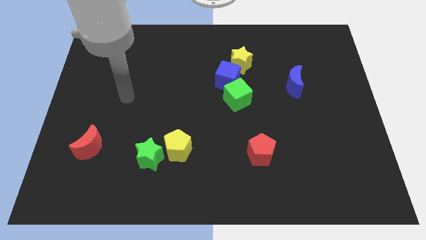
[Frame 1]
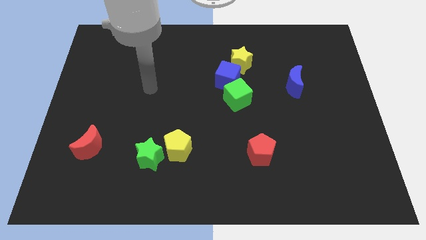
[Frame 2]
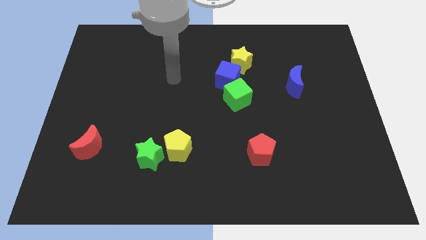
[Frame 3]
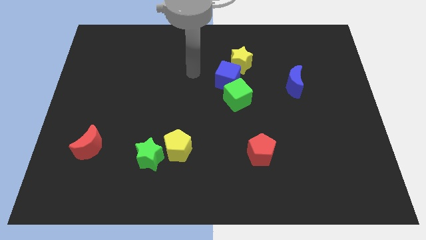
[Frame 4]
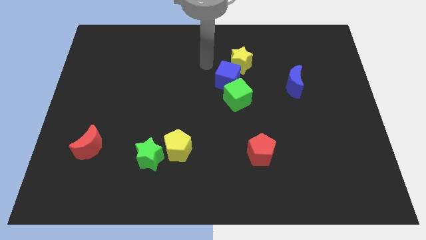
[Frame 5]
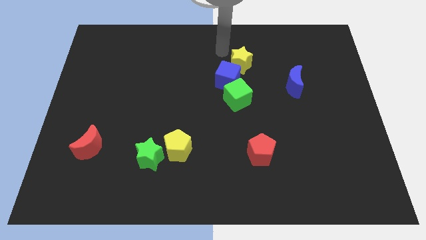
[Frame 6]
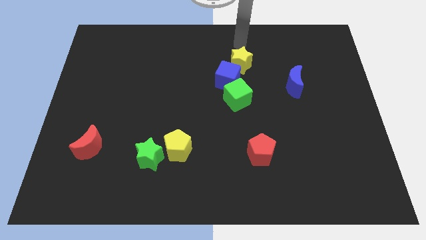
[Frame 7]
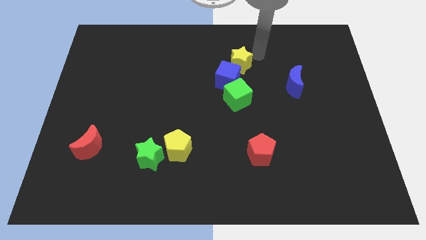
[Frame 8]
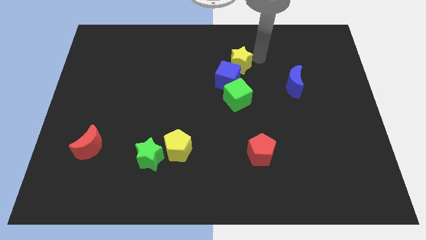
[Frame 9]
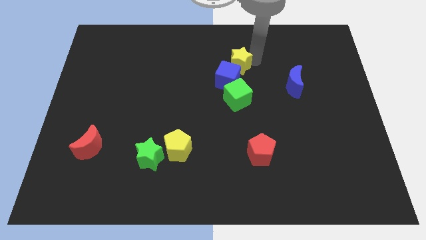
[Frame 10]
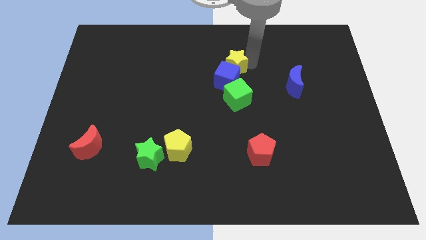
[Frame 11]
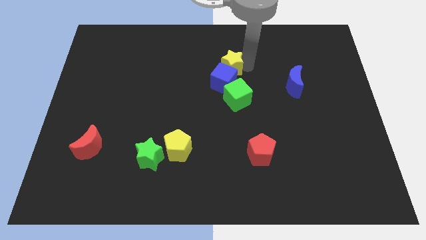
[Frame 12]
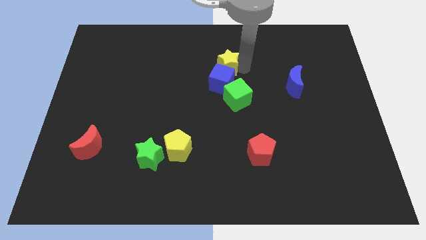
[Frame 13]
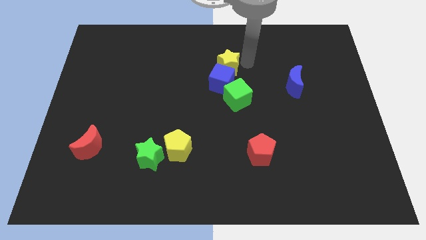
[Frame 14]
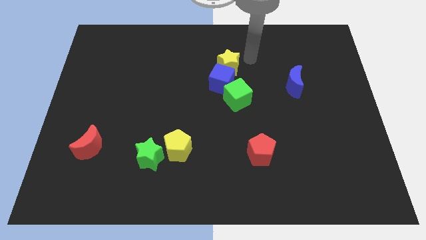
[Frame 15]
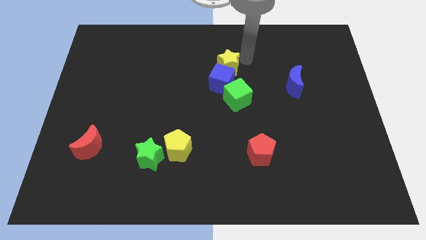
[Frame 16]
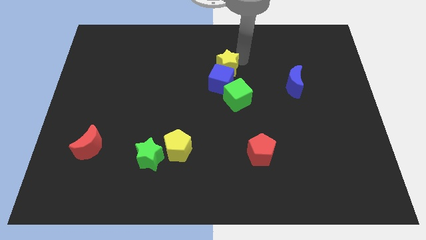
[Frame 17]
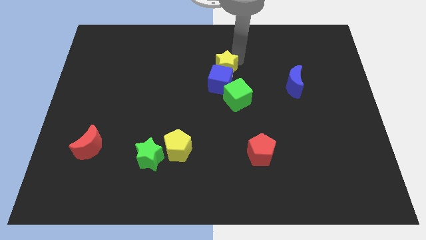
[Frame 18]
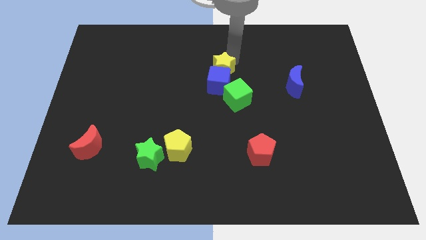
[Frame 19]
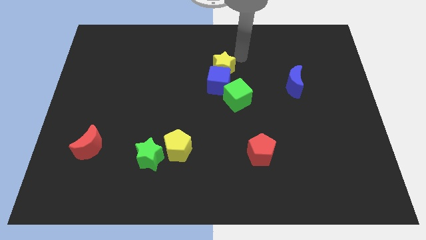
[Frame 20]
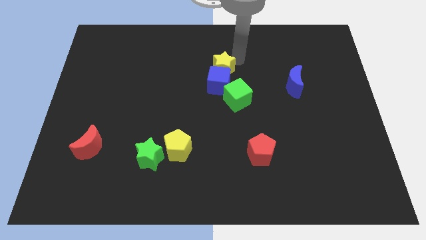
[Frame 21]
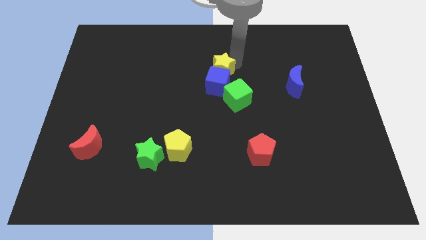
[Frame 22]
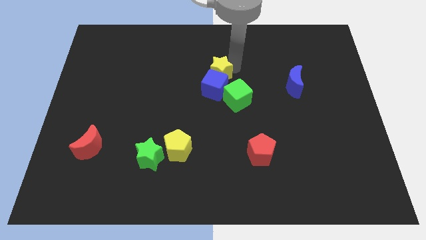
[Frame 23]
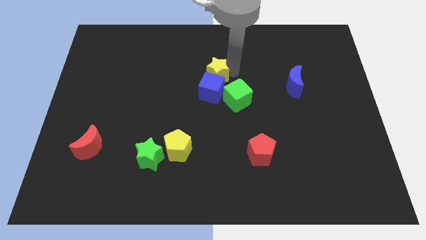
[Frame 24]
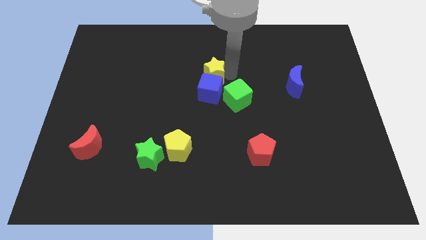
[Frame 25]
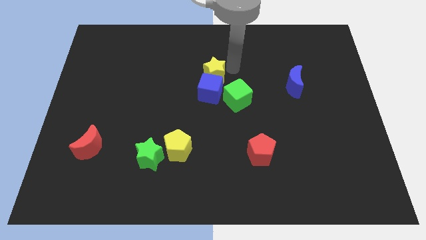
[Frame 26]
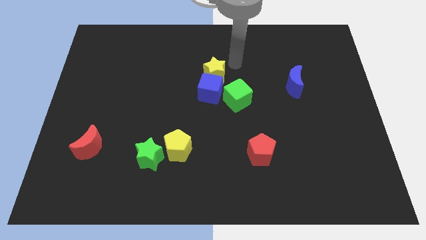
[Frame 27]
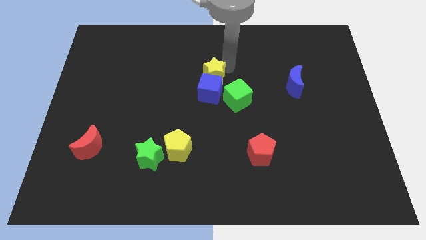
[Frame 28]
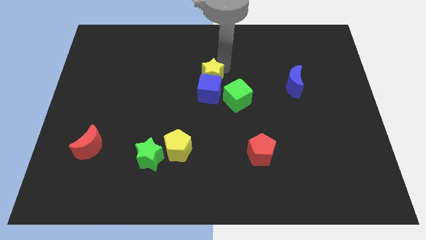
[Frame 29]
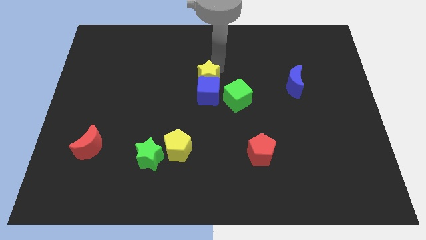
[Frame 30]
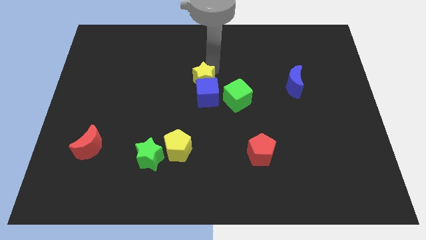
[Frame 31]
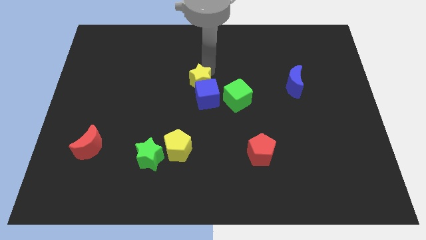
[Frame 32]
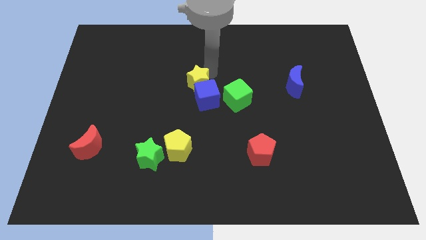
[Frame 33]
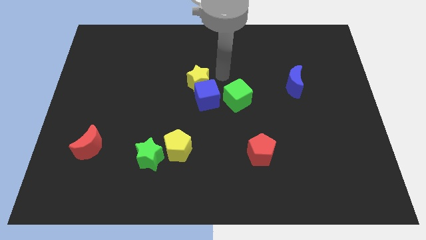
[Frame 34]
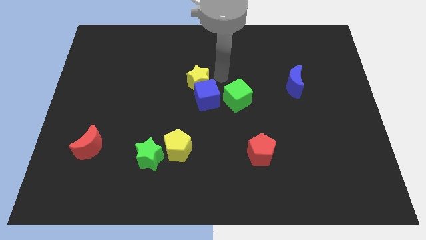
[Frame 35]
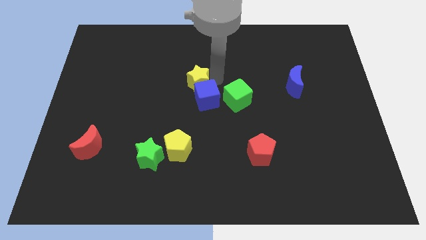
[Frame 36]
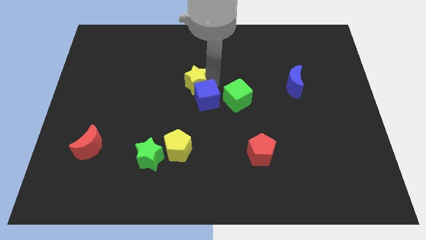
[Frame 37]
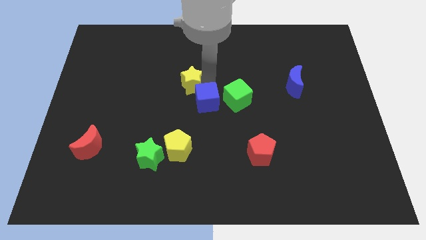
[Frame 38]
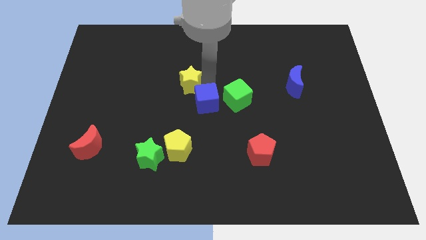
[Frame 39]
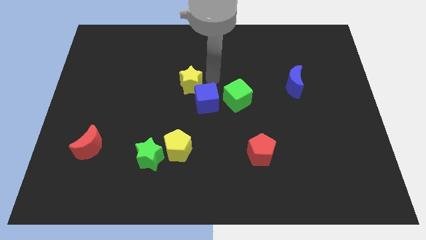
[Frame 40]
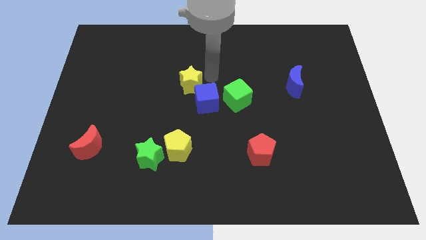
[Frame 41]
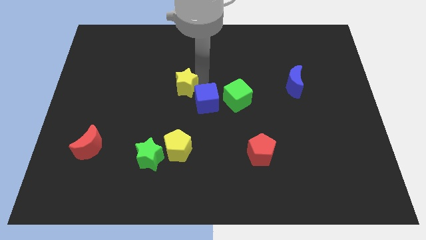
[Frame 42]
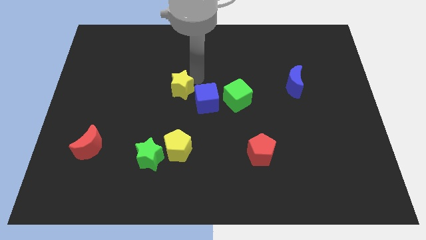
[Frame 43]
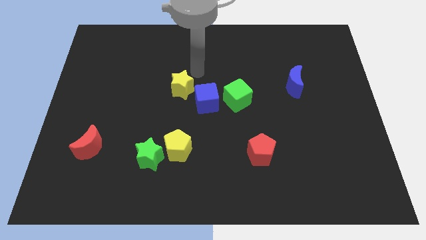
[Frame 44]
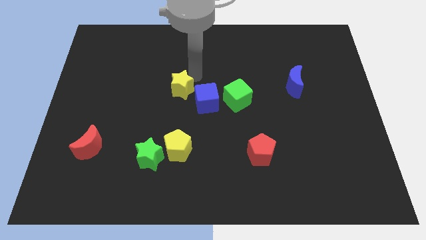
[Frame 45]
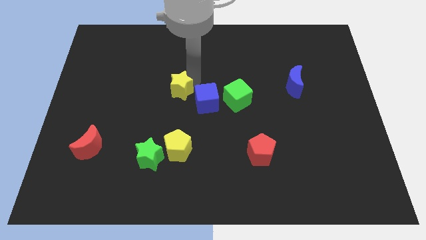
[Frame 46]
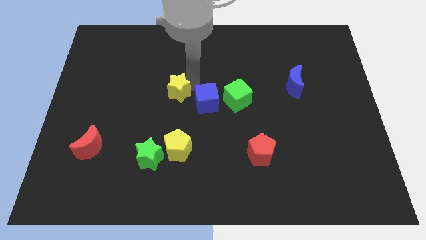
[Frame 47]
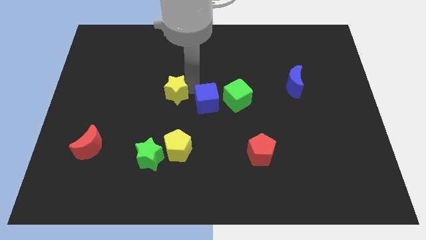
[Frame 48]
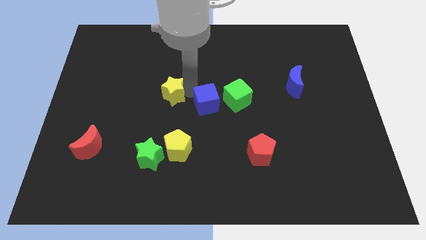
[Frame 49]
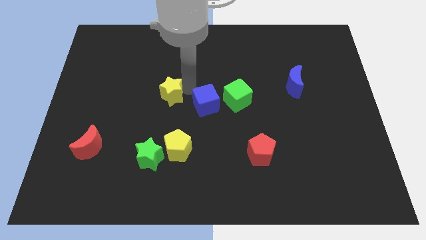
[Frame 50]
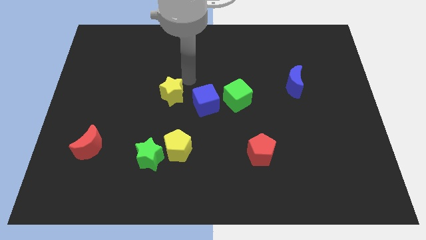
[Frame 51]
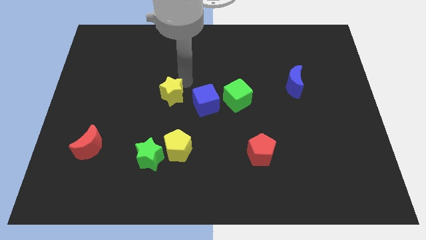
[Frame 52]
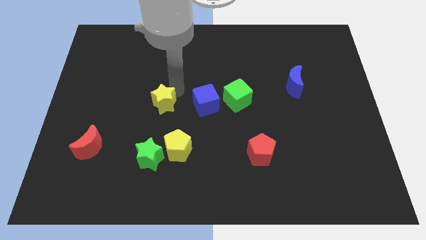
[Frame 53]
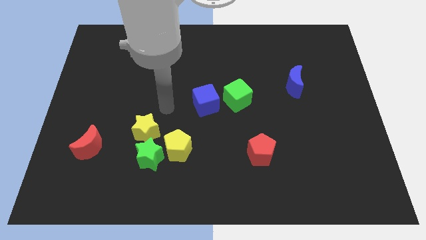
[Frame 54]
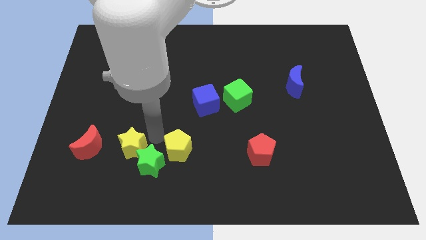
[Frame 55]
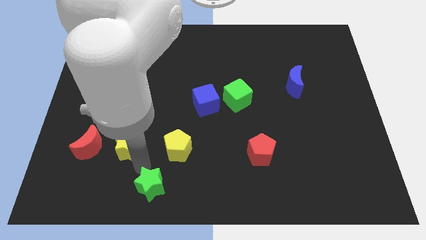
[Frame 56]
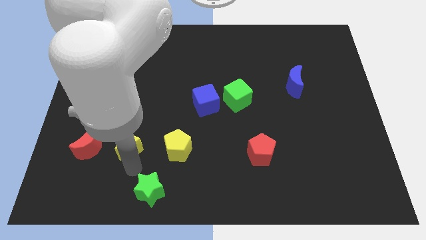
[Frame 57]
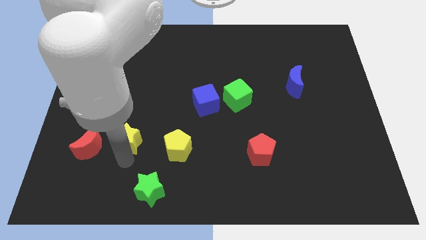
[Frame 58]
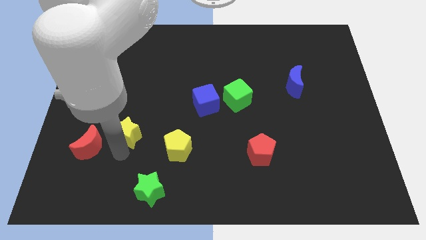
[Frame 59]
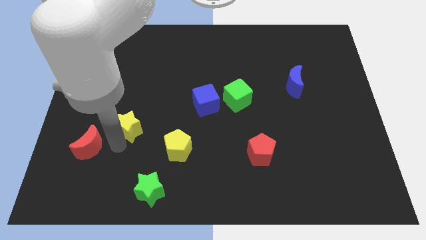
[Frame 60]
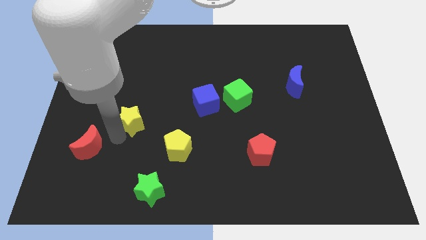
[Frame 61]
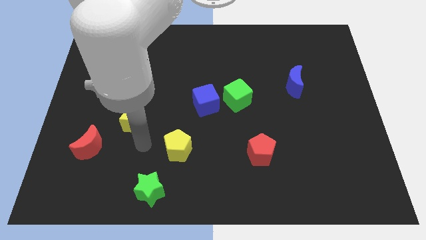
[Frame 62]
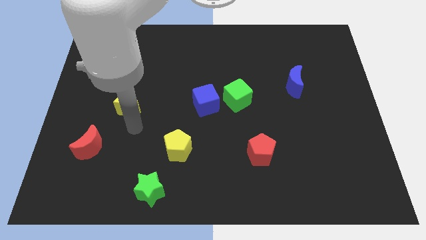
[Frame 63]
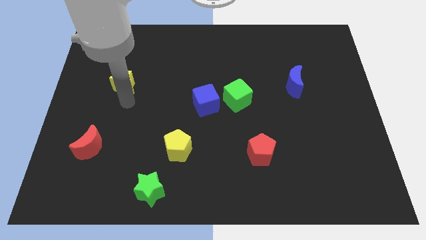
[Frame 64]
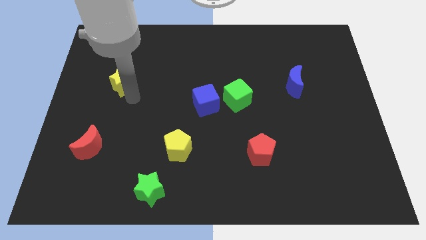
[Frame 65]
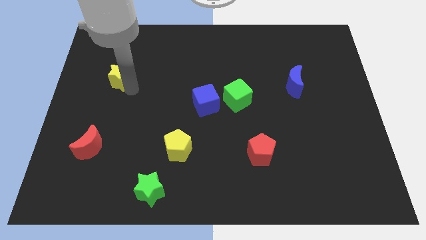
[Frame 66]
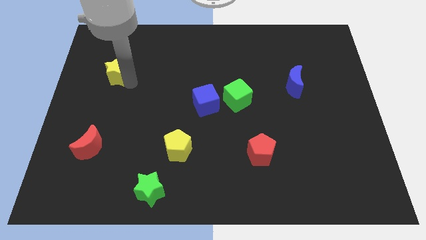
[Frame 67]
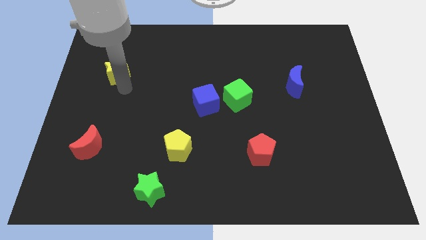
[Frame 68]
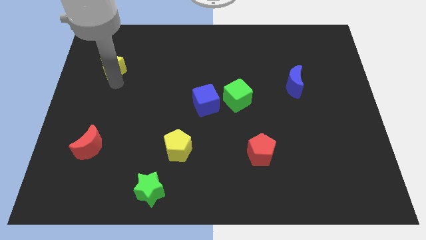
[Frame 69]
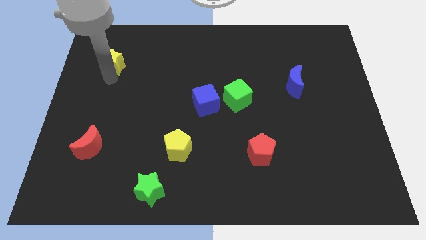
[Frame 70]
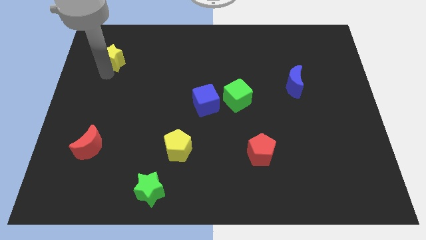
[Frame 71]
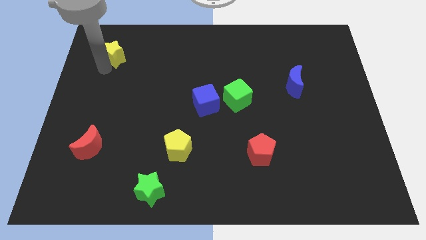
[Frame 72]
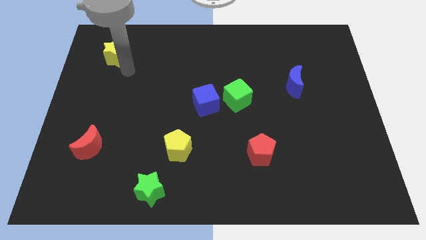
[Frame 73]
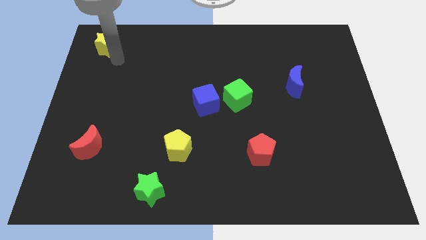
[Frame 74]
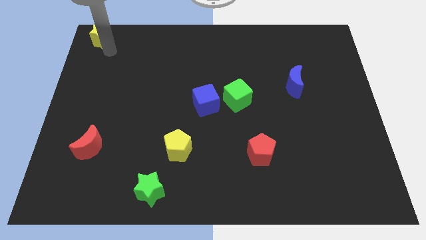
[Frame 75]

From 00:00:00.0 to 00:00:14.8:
move the yellow star to the top left
